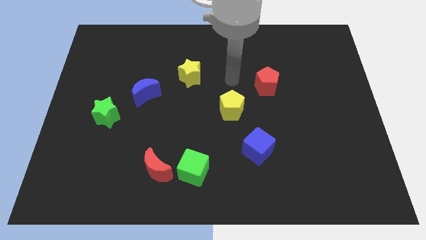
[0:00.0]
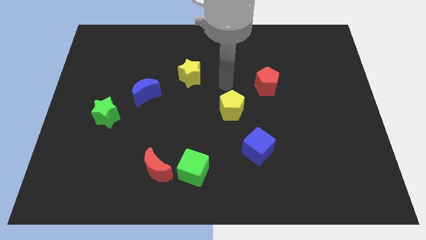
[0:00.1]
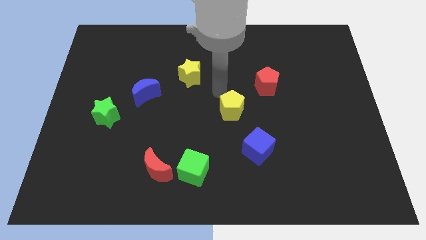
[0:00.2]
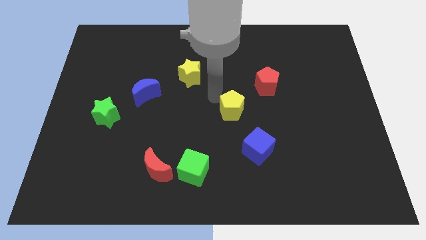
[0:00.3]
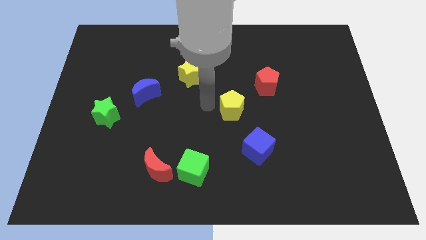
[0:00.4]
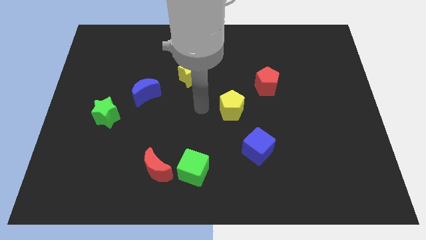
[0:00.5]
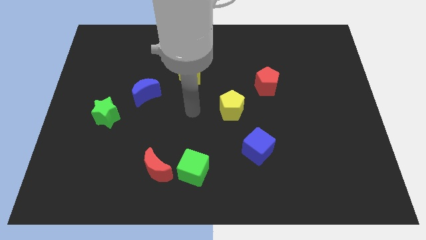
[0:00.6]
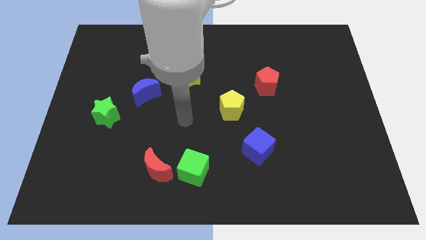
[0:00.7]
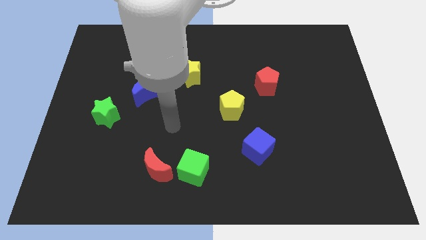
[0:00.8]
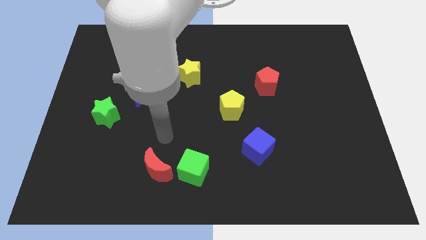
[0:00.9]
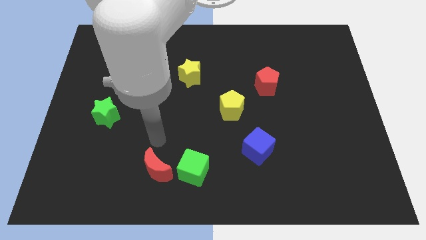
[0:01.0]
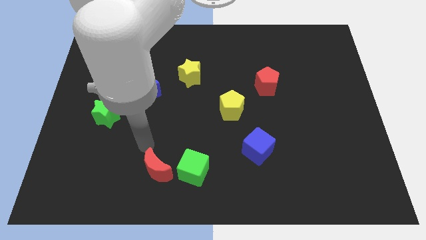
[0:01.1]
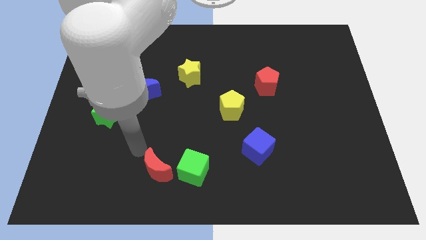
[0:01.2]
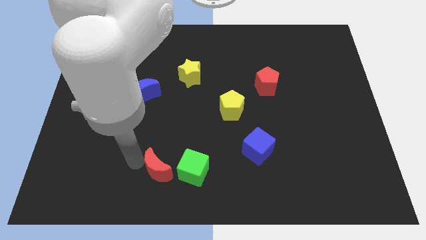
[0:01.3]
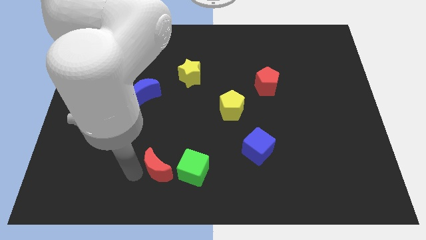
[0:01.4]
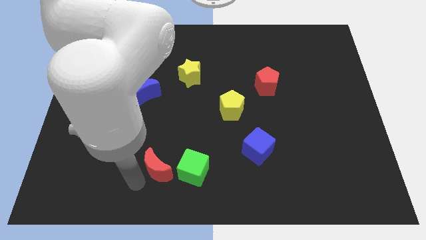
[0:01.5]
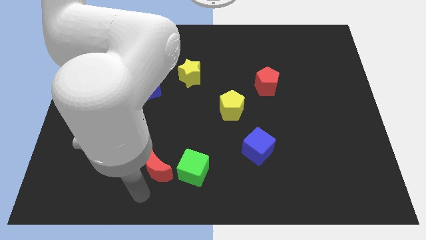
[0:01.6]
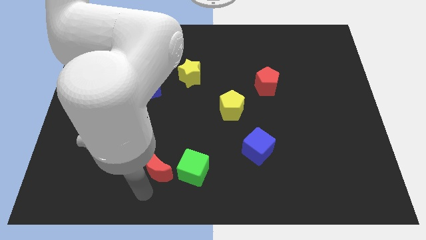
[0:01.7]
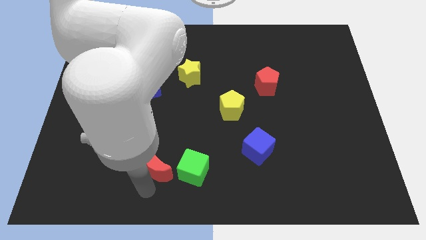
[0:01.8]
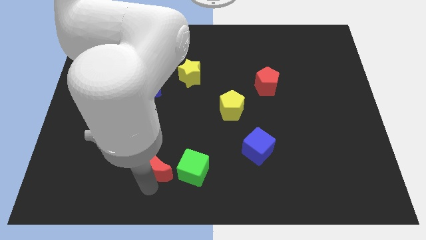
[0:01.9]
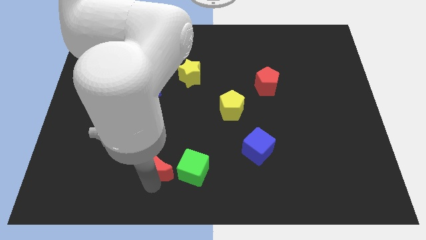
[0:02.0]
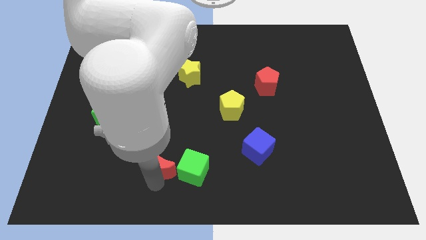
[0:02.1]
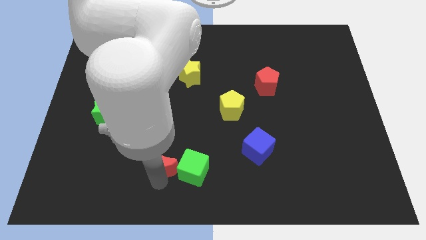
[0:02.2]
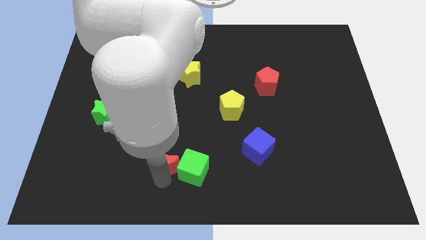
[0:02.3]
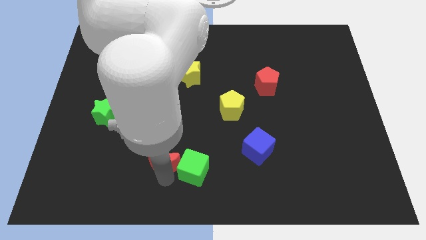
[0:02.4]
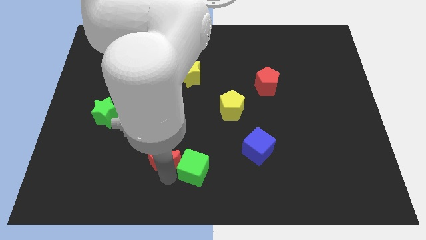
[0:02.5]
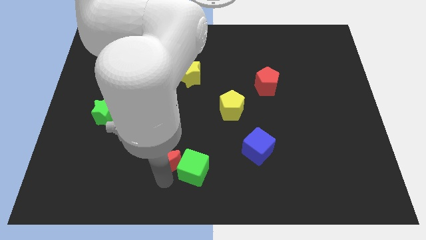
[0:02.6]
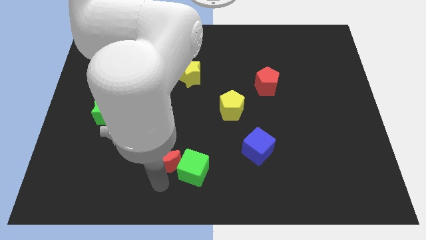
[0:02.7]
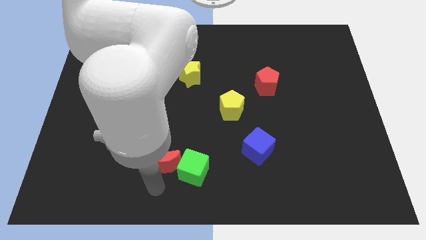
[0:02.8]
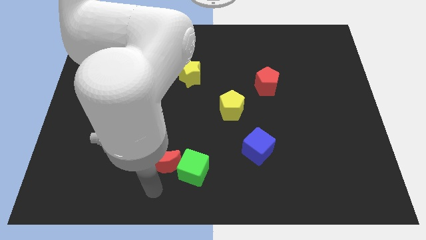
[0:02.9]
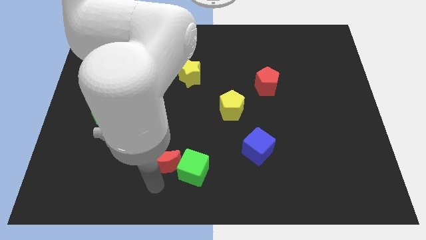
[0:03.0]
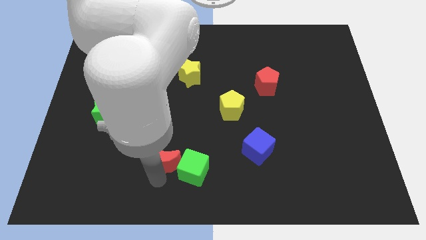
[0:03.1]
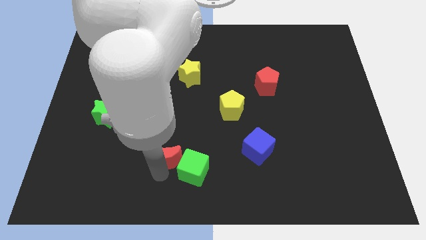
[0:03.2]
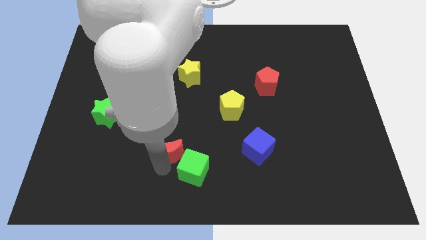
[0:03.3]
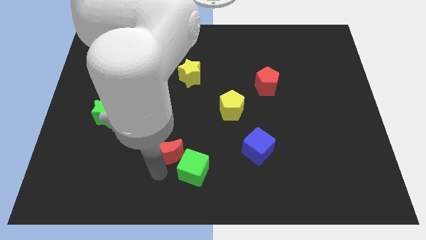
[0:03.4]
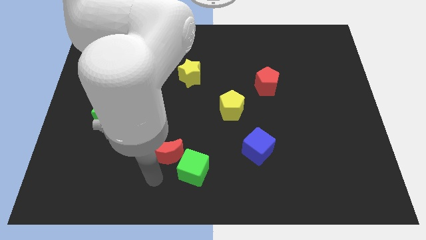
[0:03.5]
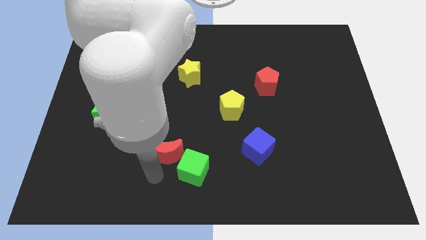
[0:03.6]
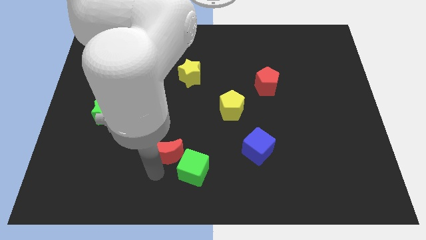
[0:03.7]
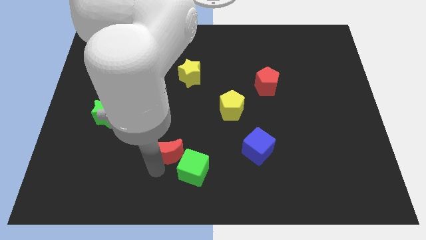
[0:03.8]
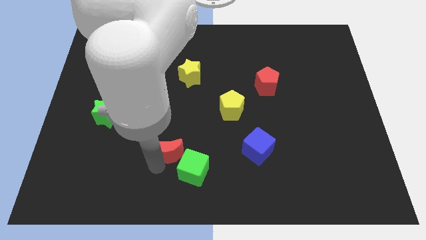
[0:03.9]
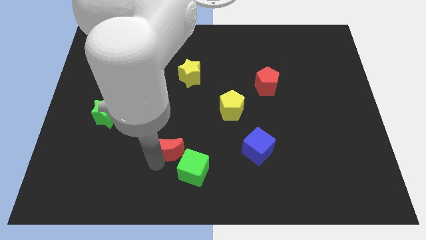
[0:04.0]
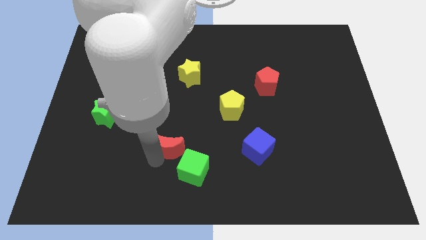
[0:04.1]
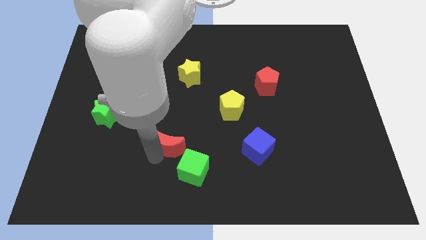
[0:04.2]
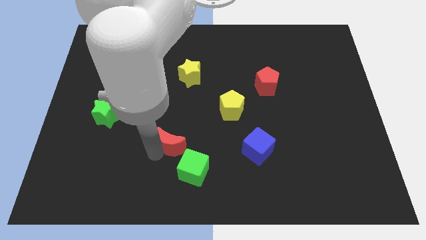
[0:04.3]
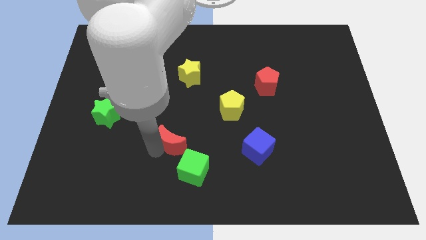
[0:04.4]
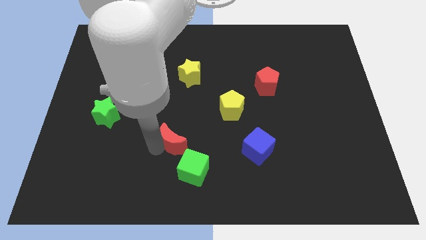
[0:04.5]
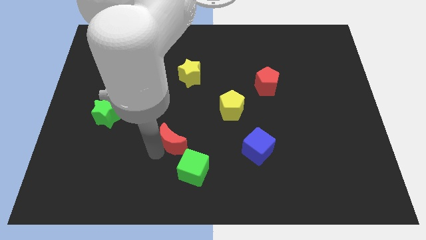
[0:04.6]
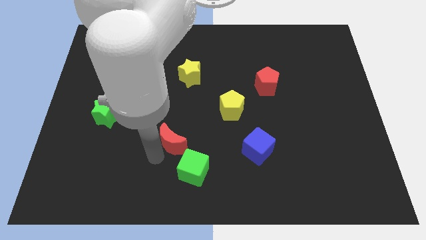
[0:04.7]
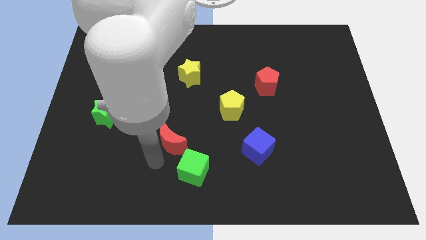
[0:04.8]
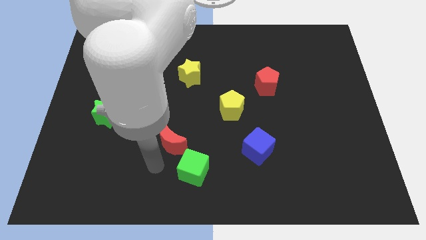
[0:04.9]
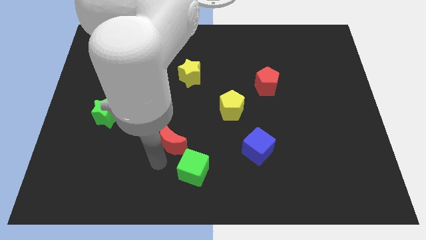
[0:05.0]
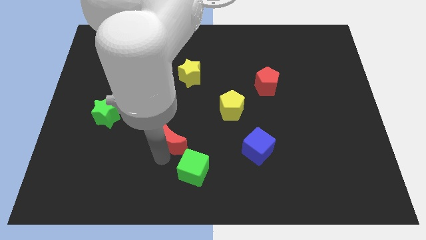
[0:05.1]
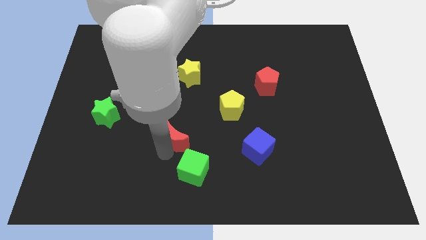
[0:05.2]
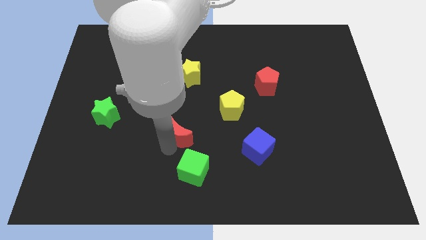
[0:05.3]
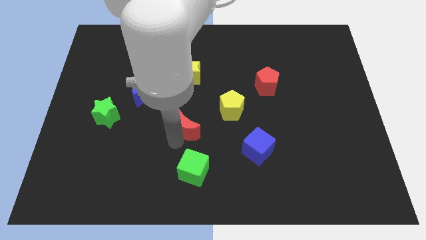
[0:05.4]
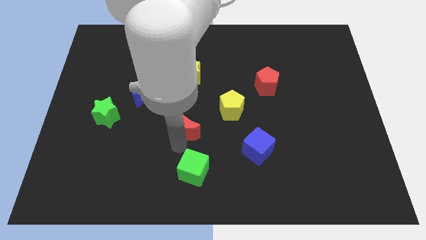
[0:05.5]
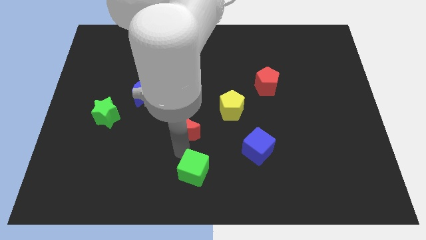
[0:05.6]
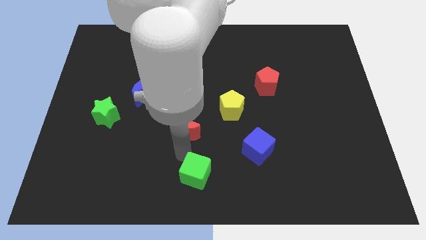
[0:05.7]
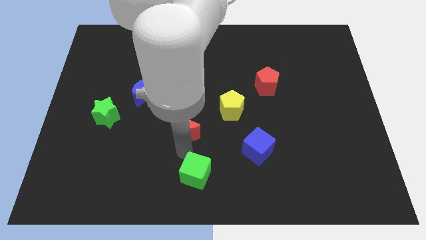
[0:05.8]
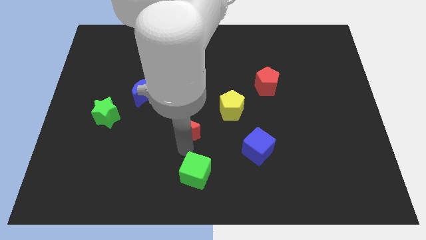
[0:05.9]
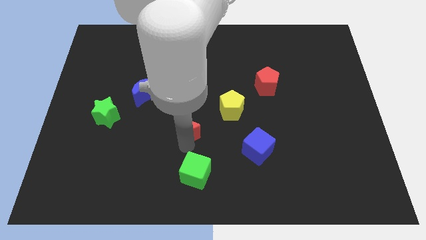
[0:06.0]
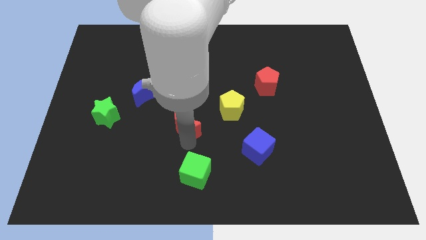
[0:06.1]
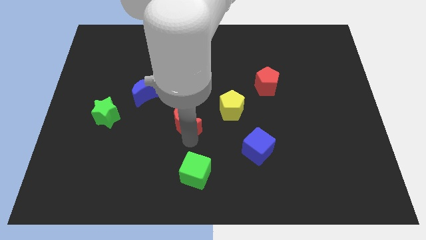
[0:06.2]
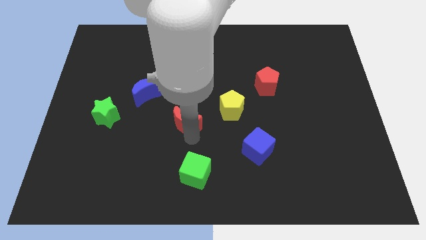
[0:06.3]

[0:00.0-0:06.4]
slide the red moon left of the yellow pentagon

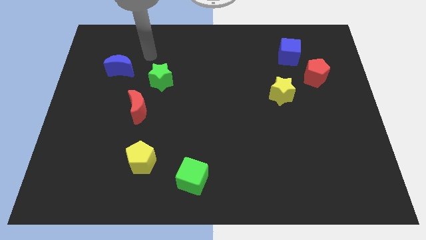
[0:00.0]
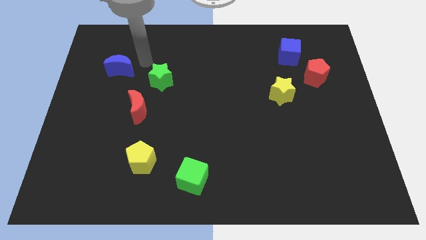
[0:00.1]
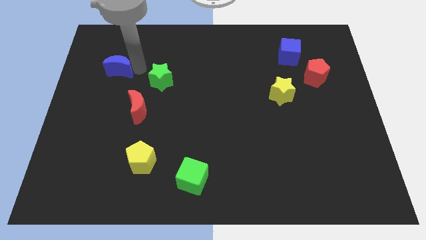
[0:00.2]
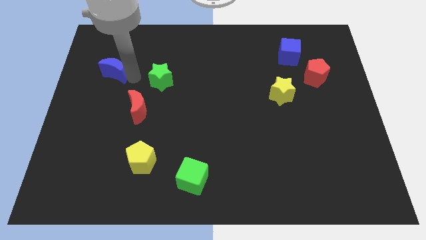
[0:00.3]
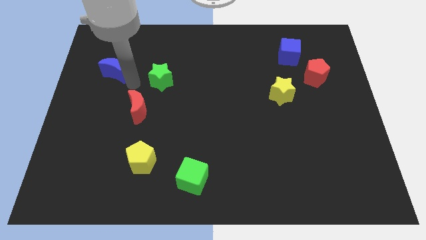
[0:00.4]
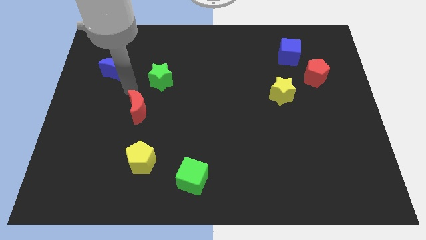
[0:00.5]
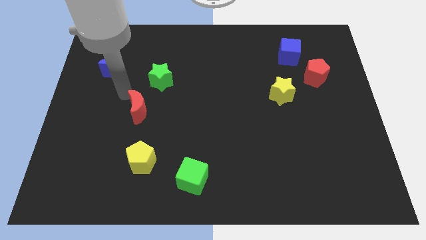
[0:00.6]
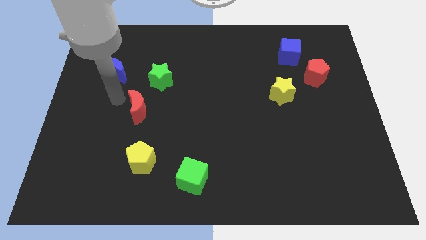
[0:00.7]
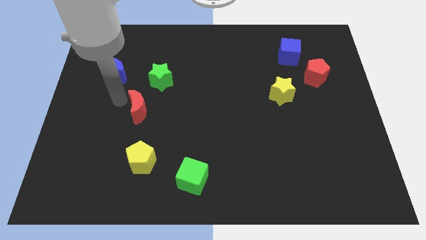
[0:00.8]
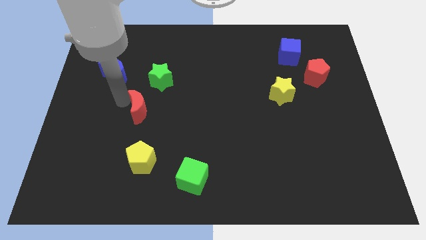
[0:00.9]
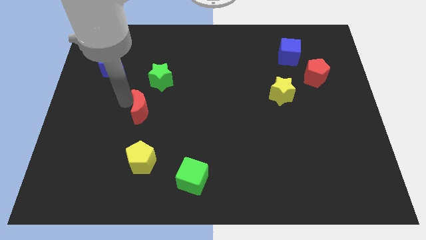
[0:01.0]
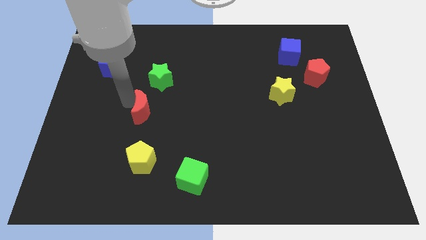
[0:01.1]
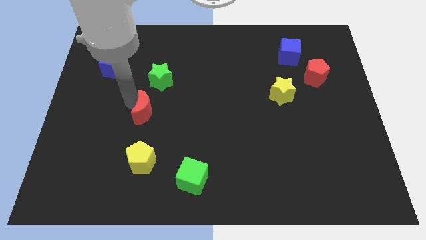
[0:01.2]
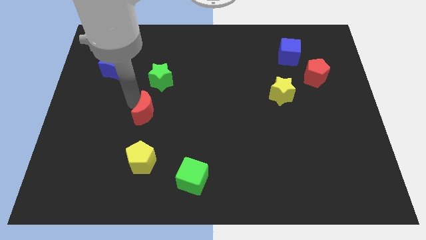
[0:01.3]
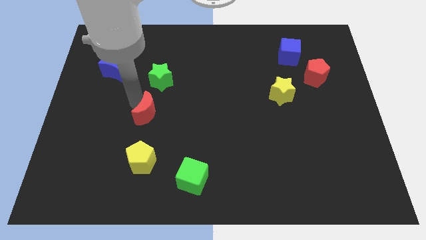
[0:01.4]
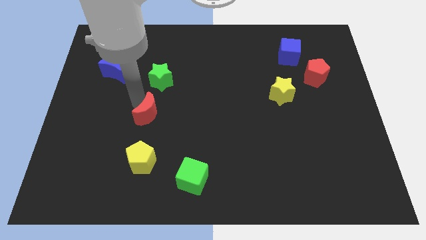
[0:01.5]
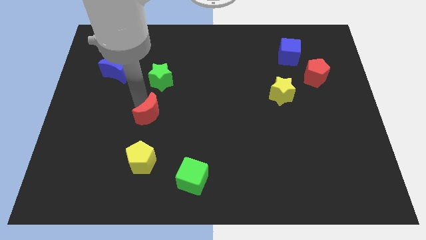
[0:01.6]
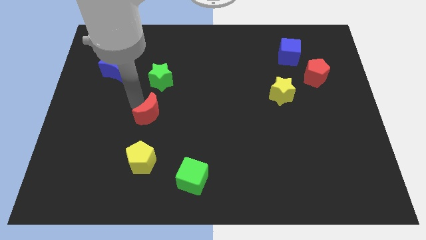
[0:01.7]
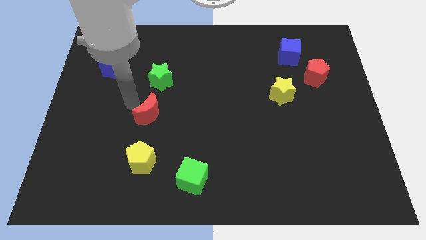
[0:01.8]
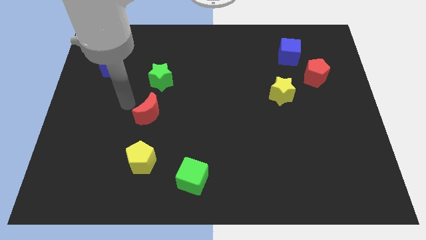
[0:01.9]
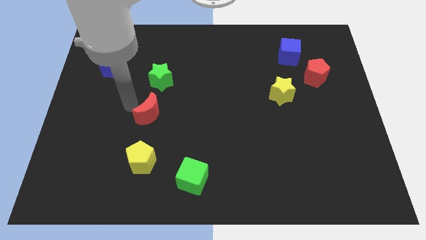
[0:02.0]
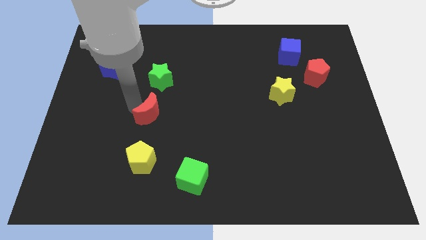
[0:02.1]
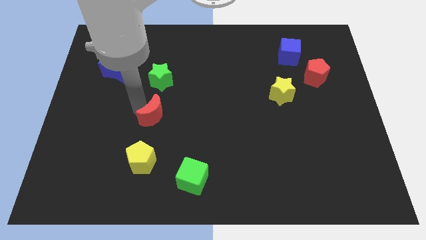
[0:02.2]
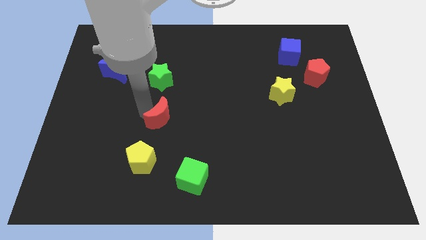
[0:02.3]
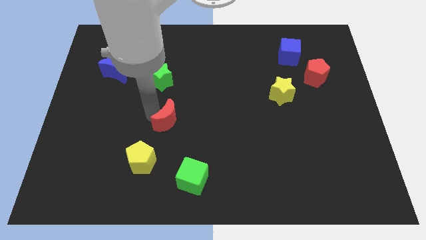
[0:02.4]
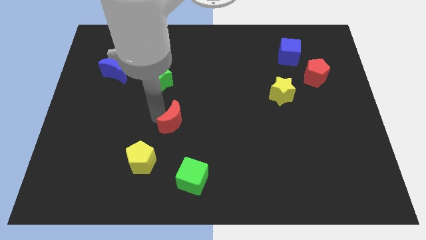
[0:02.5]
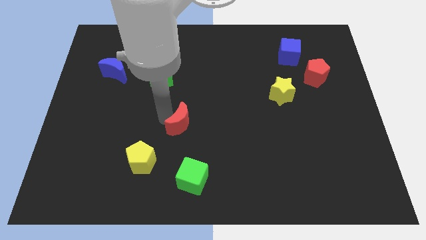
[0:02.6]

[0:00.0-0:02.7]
move the red moon to the top of the green cube
